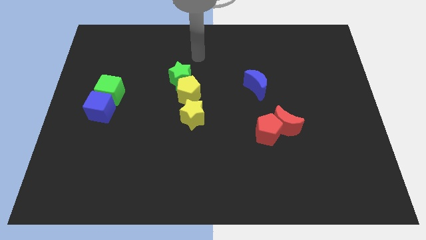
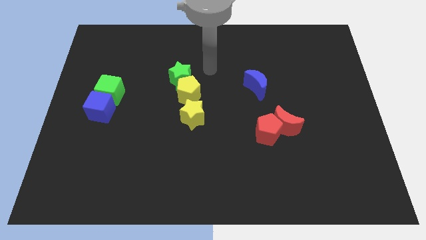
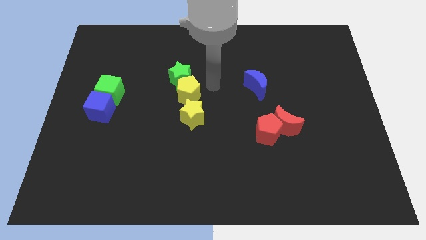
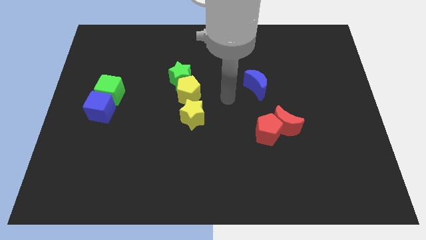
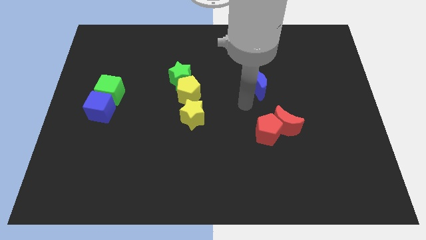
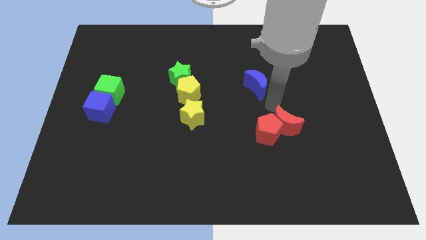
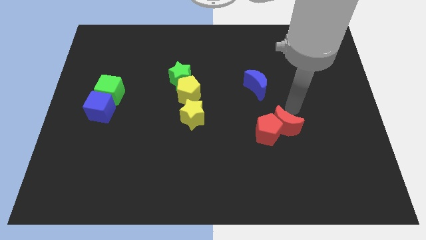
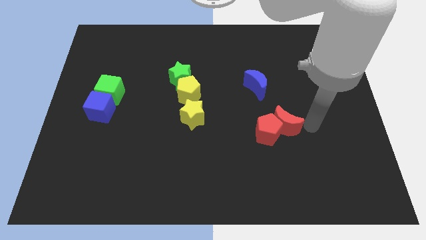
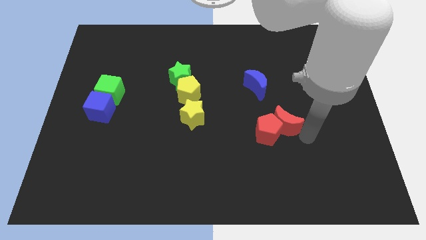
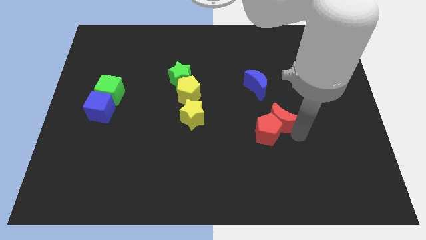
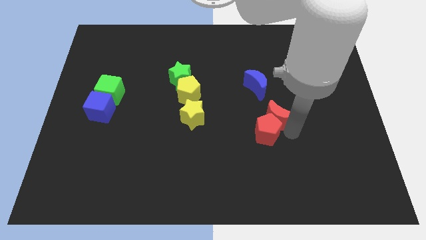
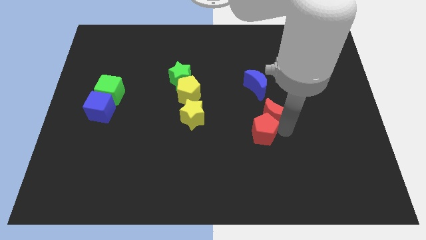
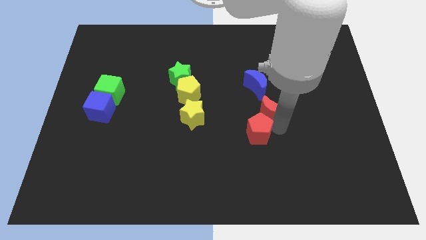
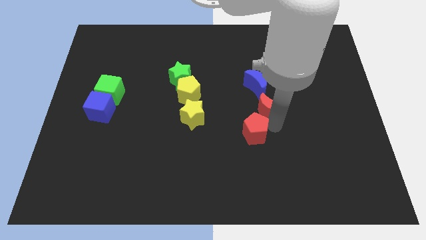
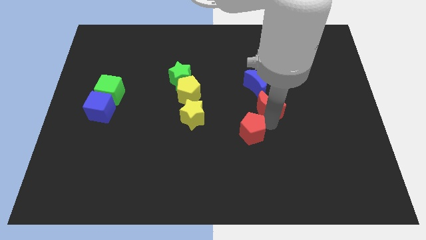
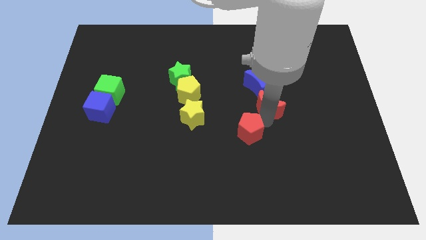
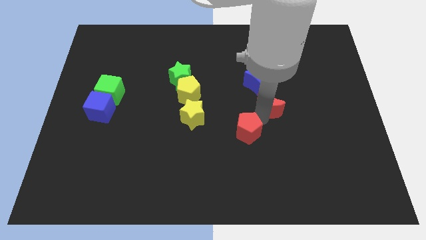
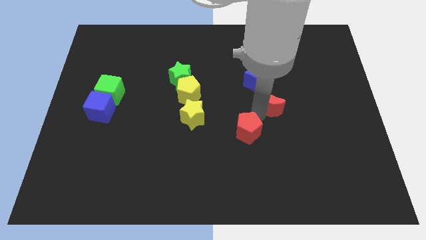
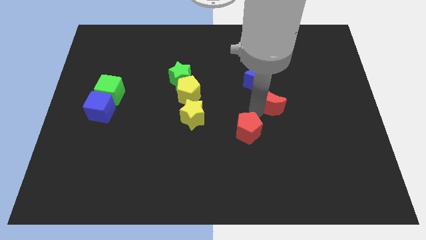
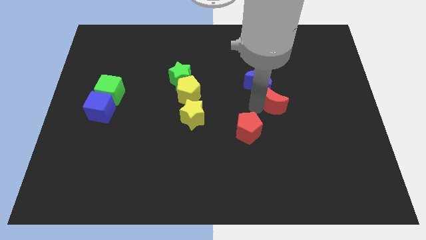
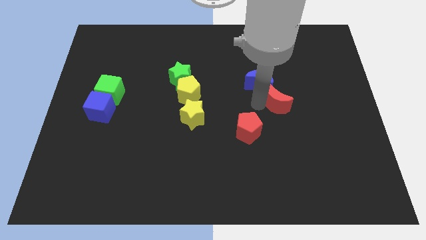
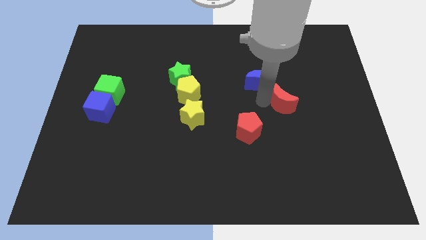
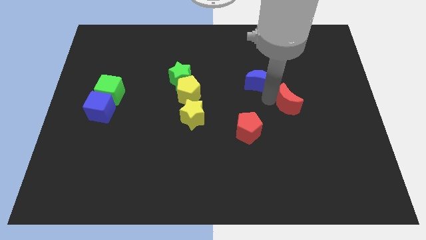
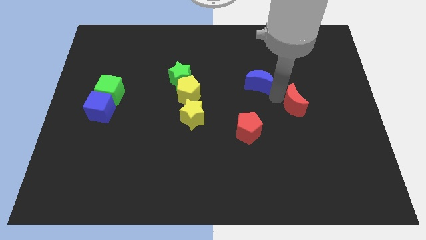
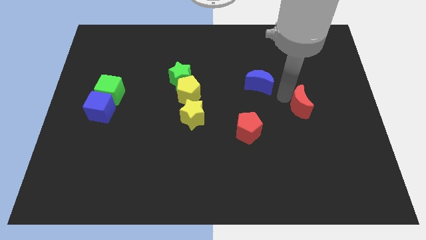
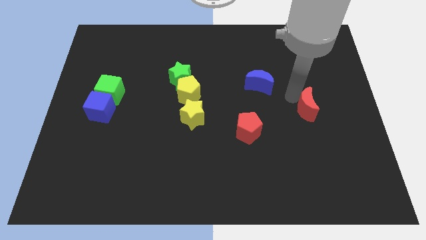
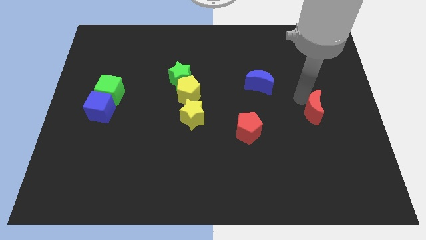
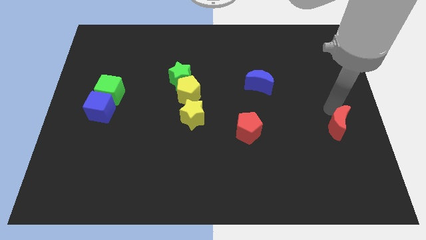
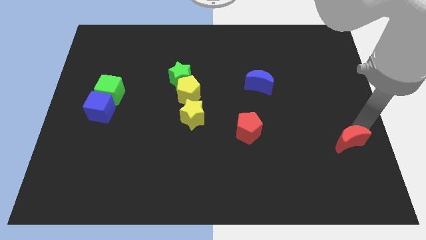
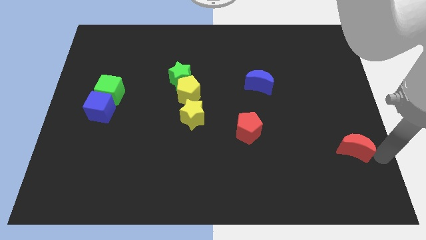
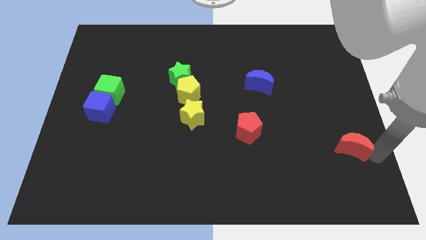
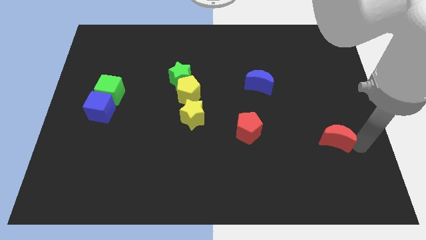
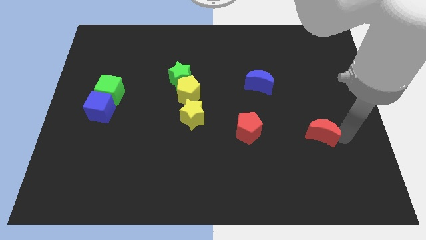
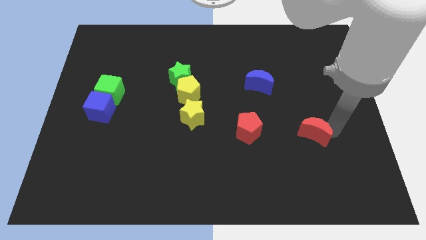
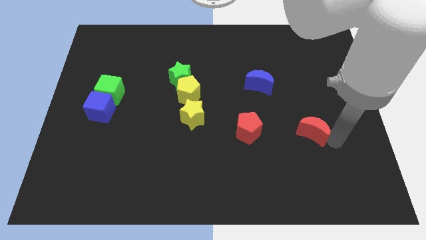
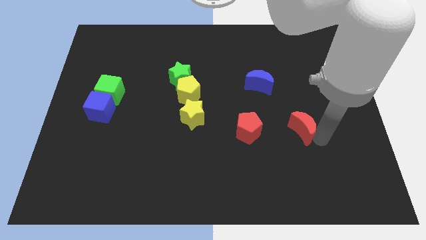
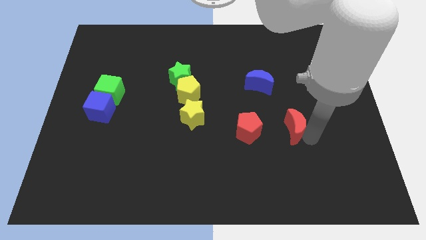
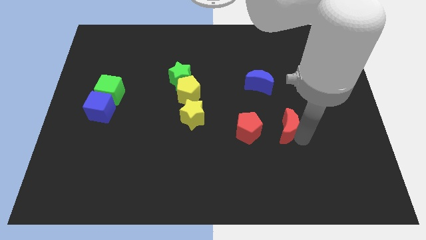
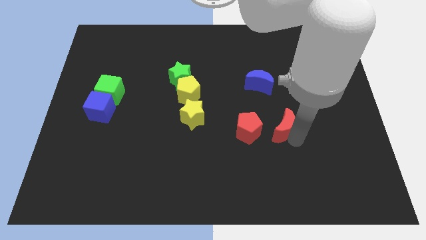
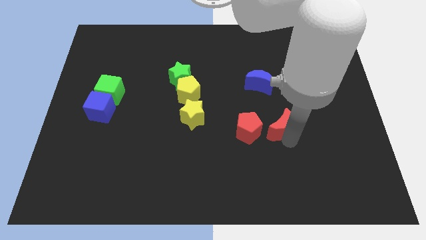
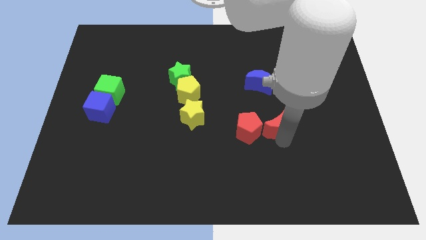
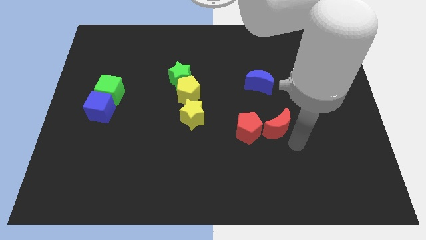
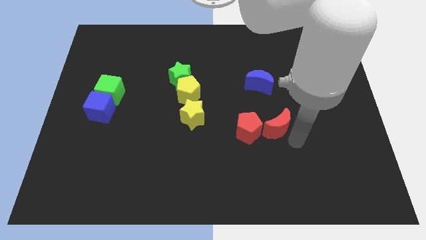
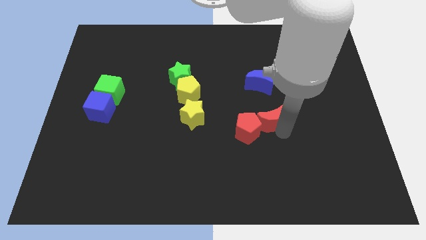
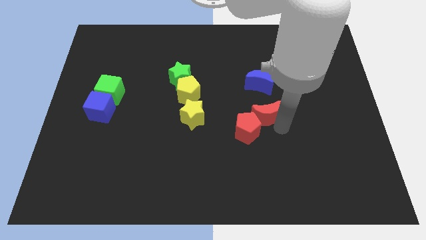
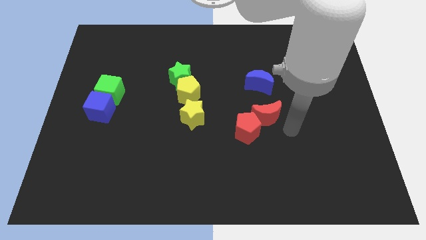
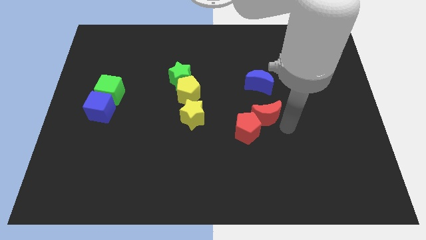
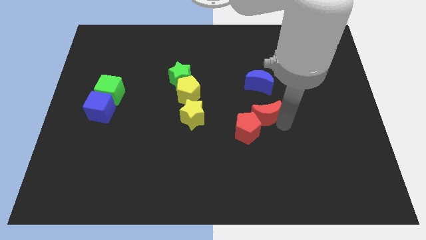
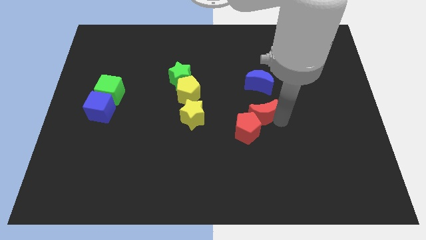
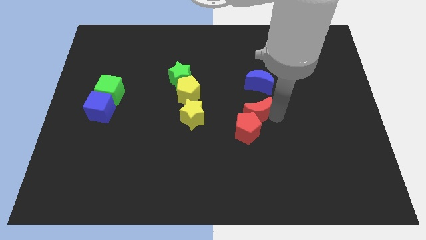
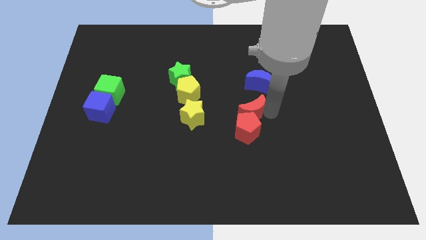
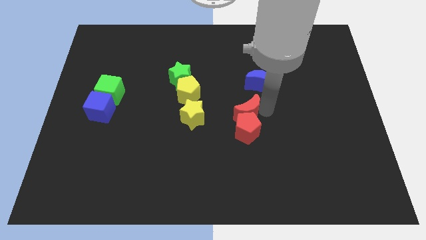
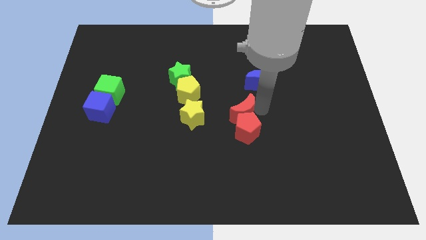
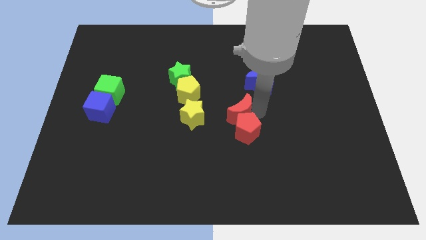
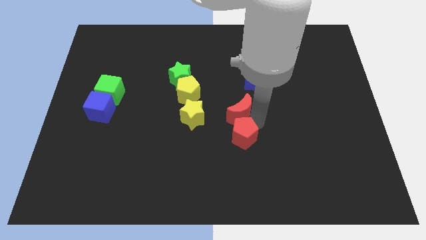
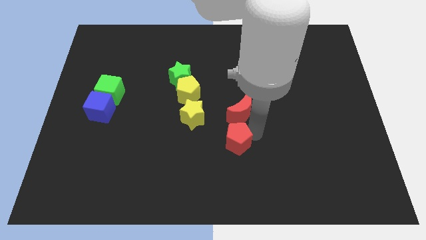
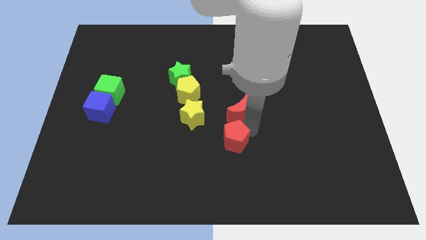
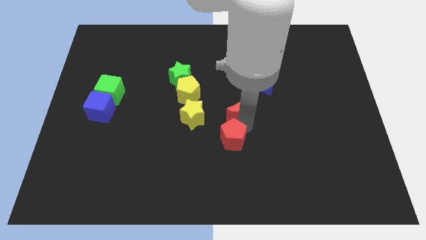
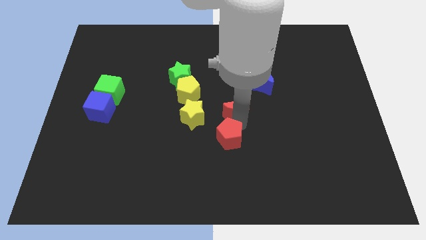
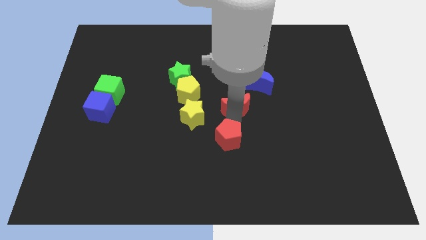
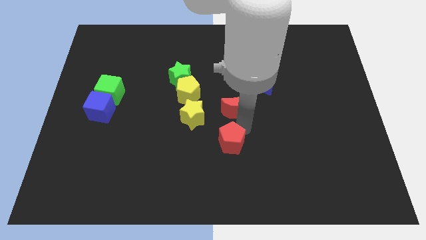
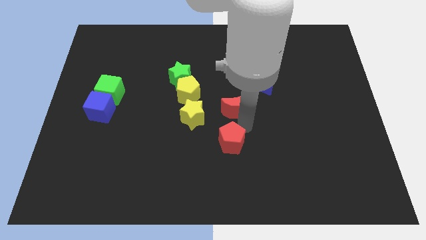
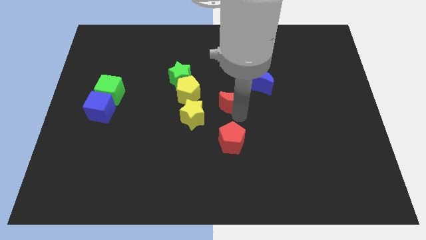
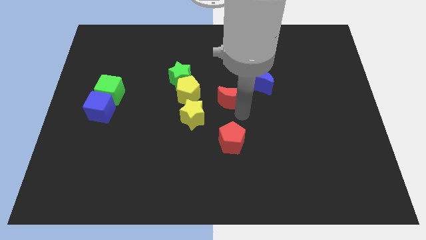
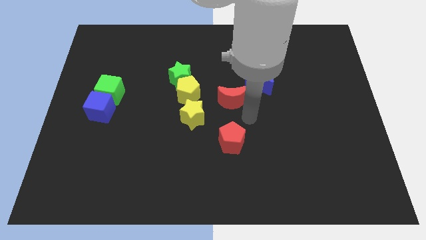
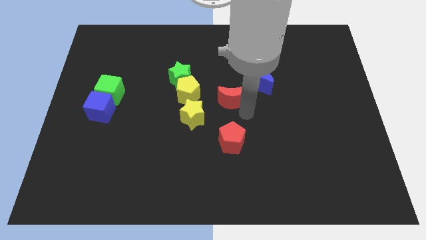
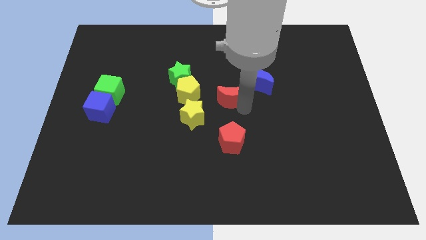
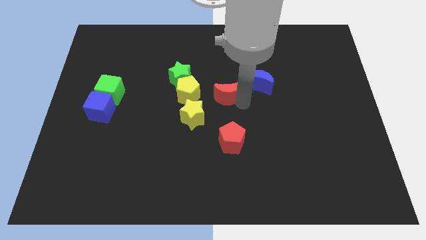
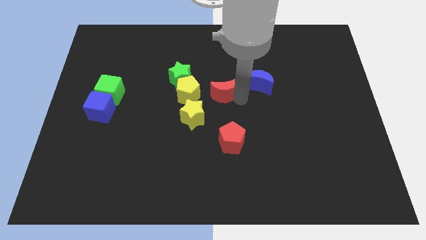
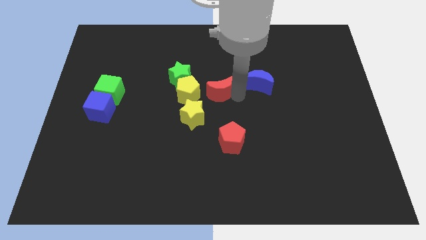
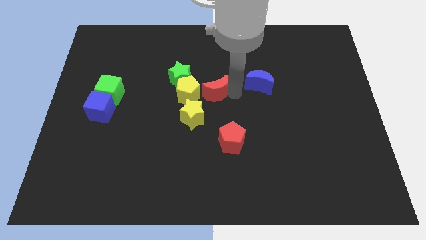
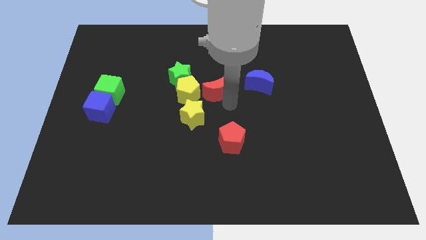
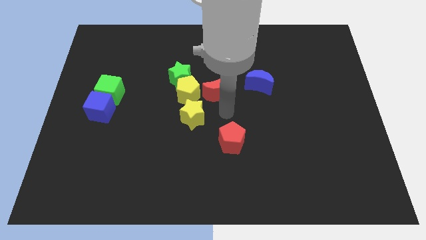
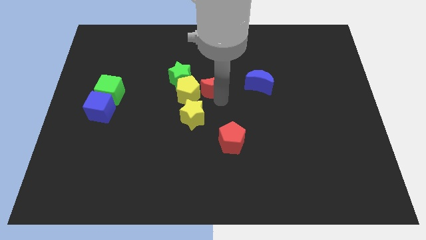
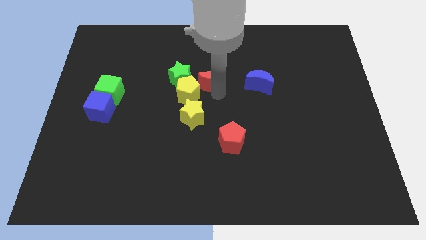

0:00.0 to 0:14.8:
push the red moon upwards and to the left diagonally

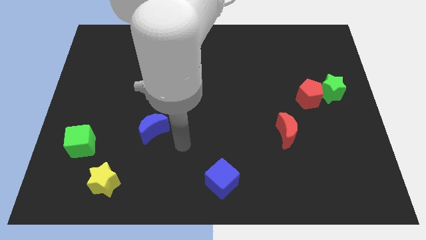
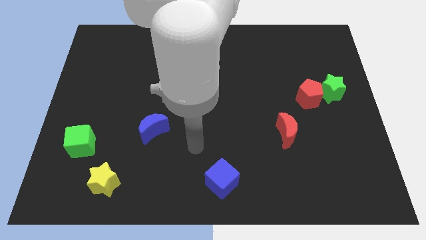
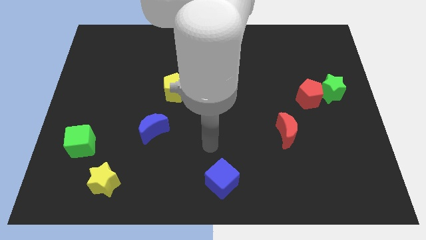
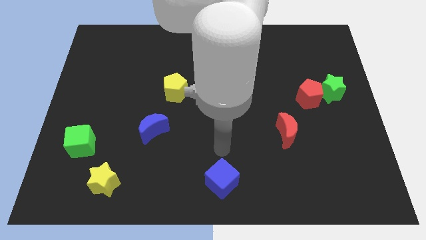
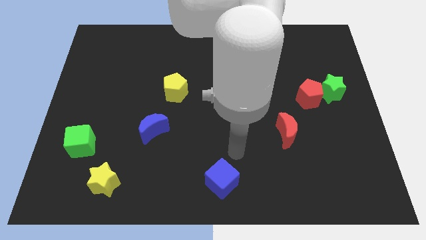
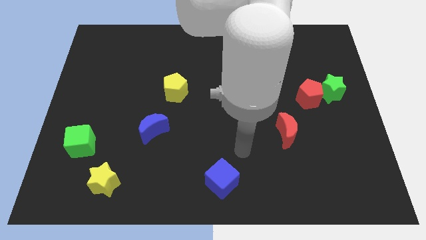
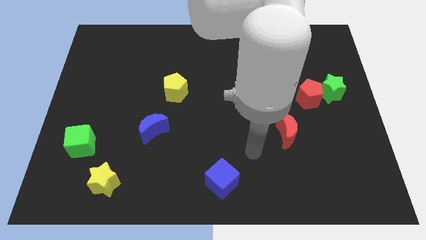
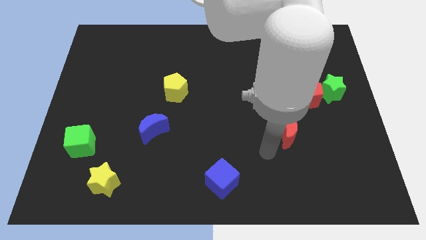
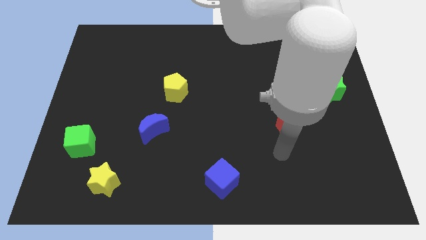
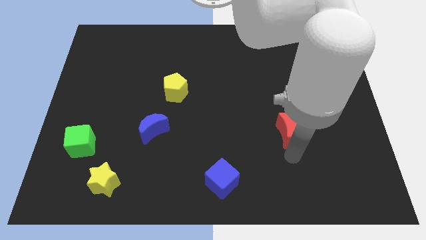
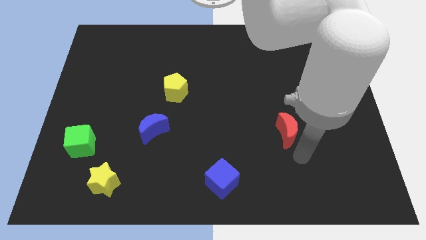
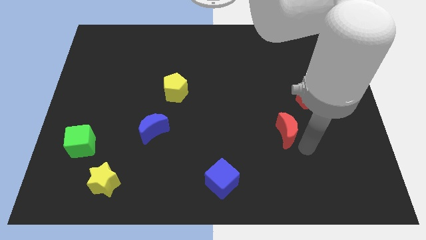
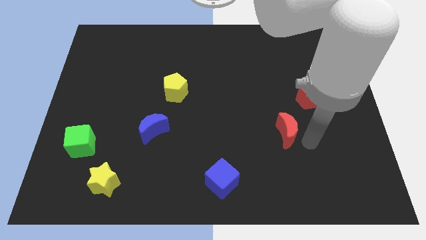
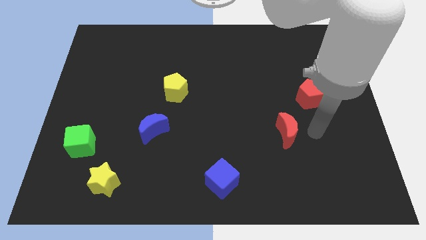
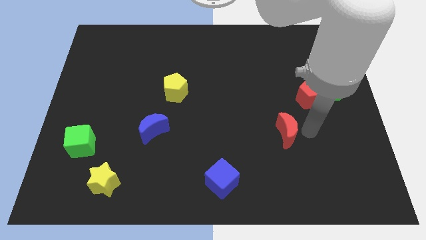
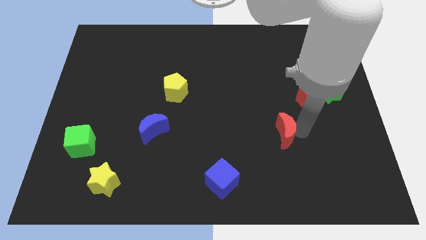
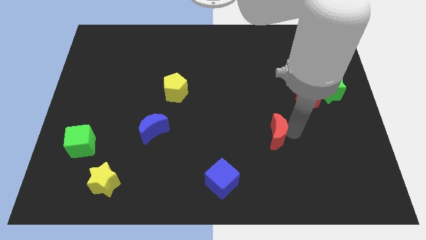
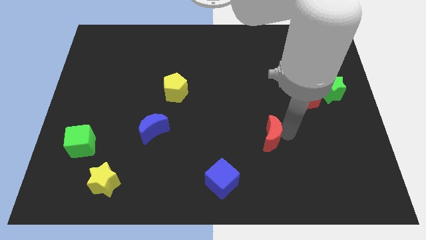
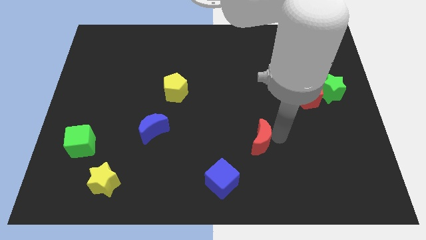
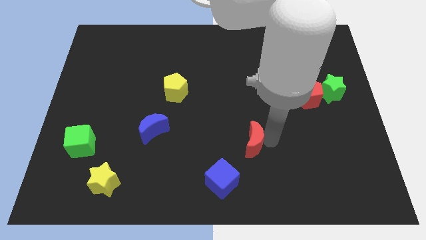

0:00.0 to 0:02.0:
move the red moon to the left a little
